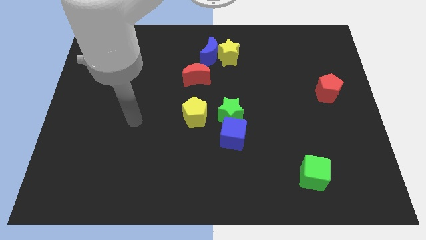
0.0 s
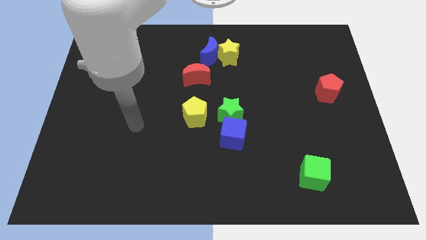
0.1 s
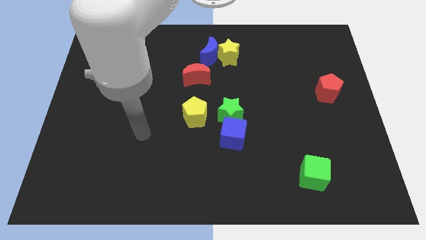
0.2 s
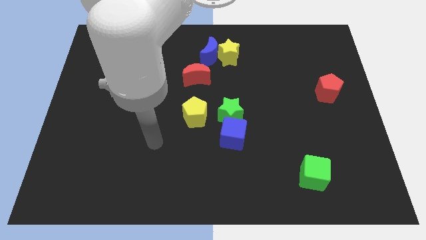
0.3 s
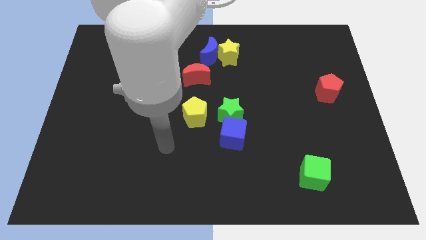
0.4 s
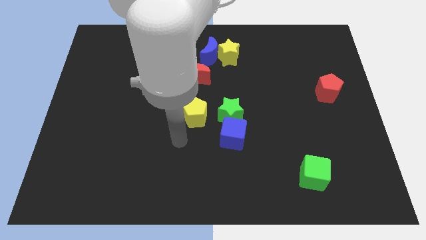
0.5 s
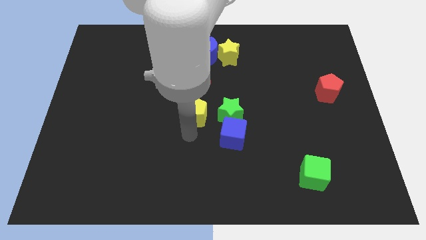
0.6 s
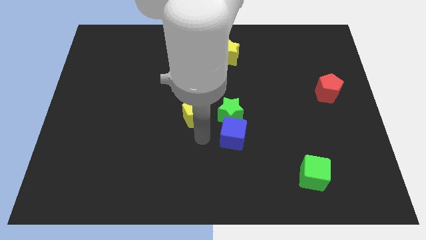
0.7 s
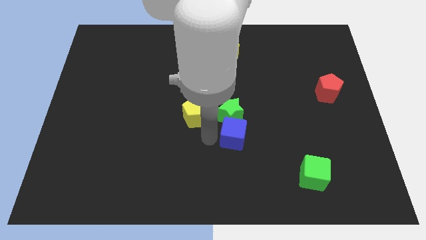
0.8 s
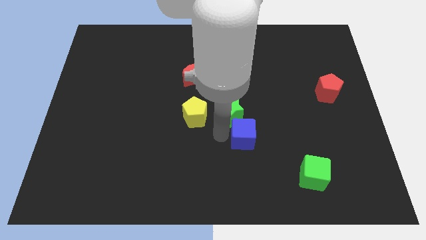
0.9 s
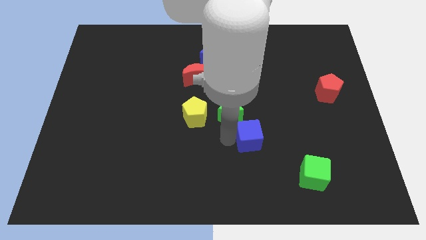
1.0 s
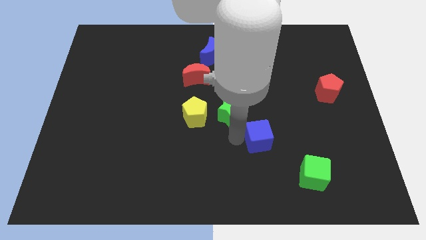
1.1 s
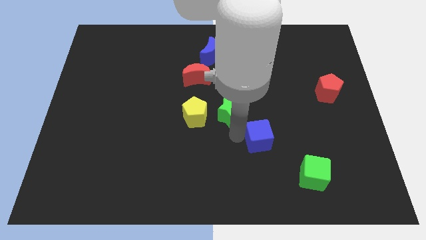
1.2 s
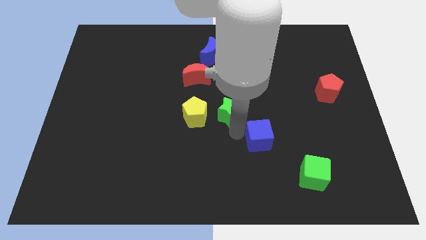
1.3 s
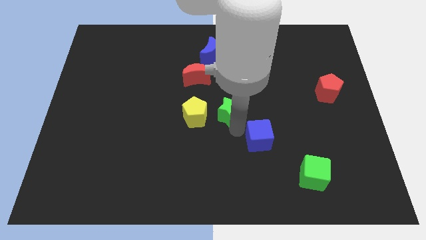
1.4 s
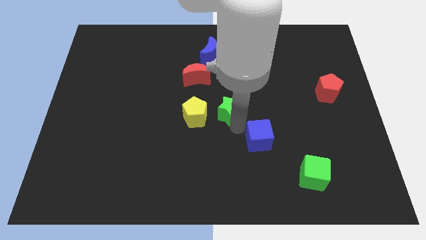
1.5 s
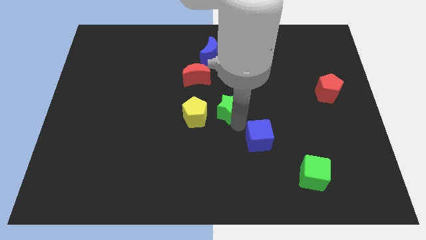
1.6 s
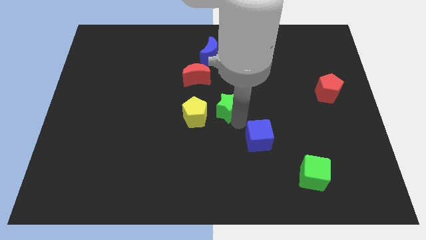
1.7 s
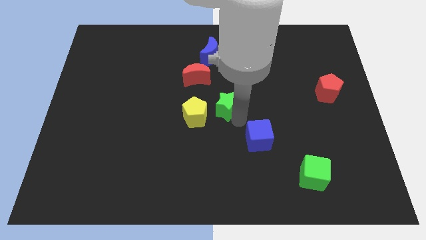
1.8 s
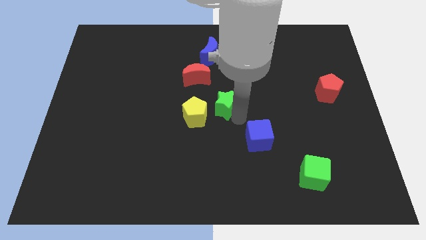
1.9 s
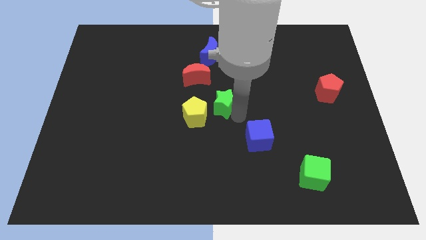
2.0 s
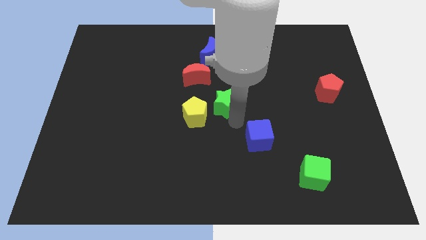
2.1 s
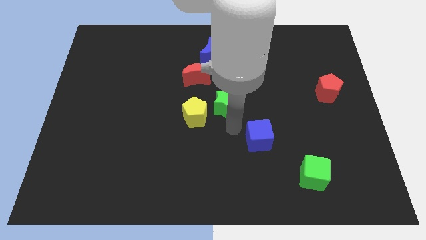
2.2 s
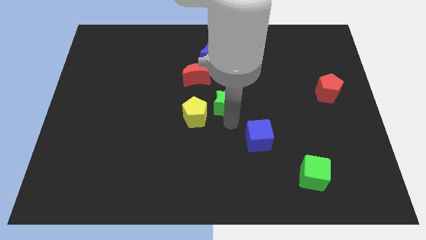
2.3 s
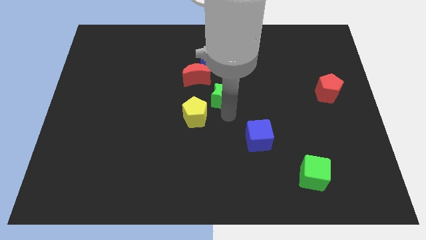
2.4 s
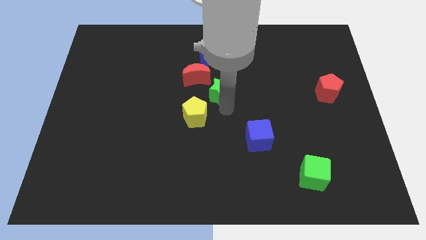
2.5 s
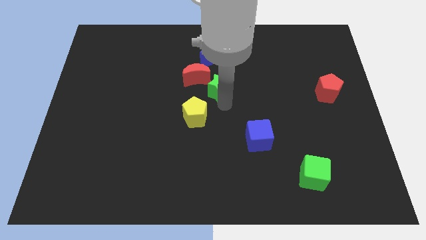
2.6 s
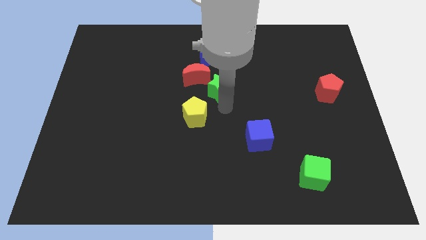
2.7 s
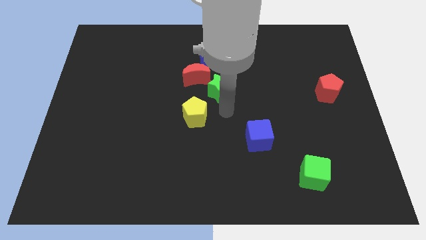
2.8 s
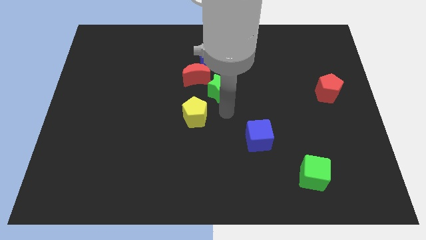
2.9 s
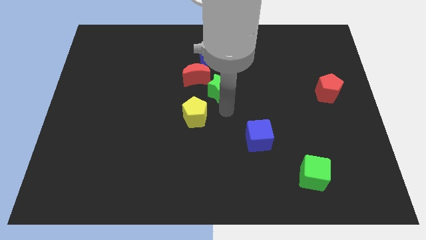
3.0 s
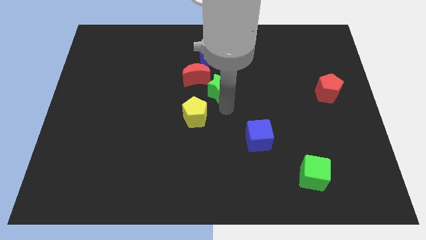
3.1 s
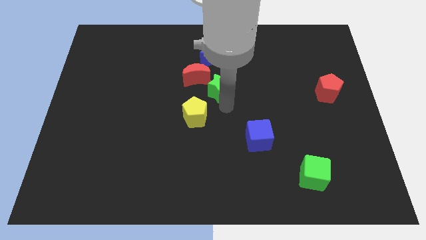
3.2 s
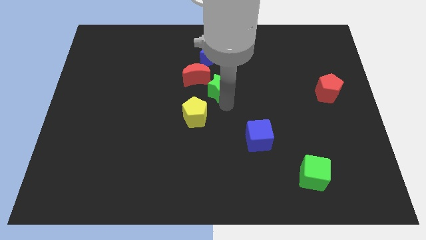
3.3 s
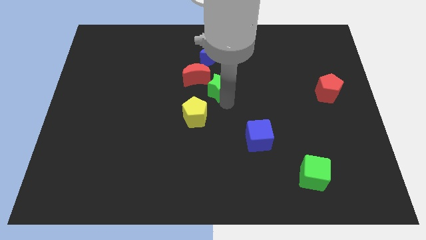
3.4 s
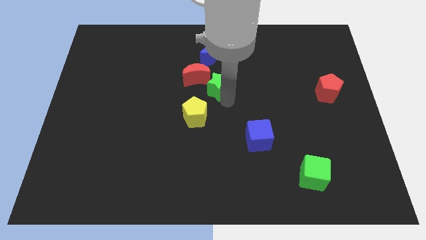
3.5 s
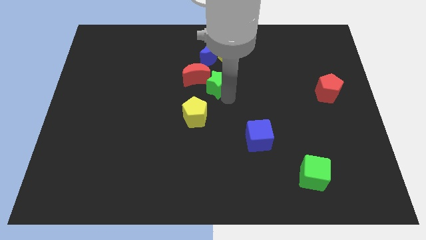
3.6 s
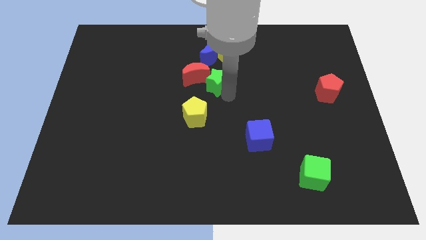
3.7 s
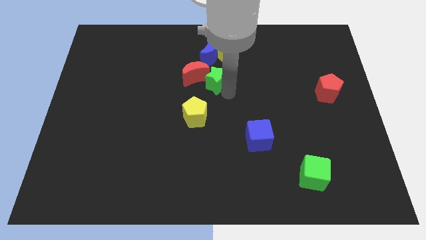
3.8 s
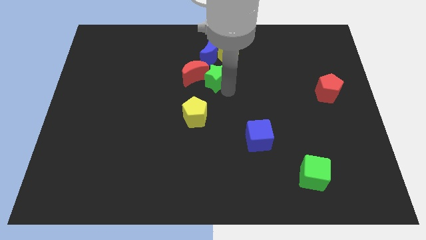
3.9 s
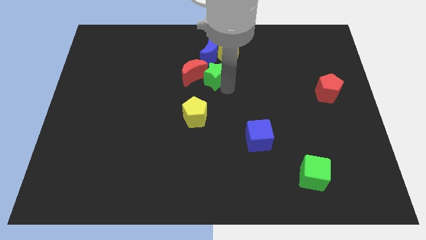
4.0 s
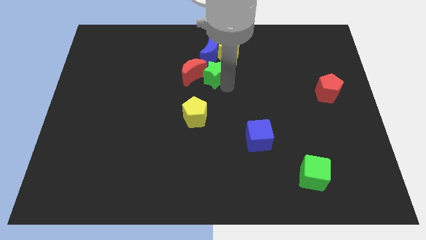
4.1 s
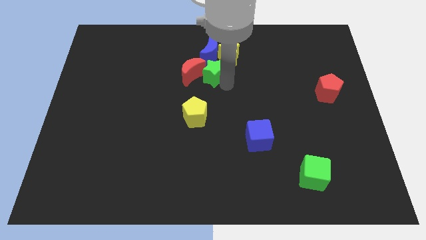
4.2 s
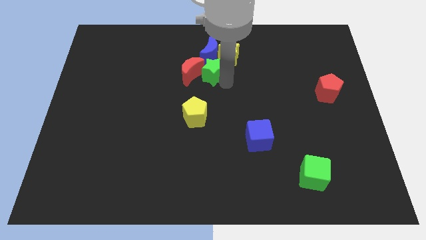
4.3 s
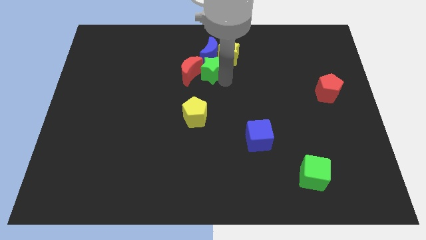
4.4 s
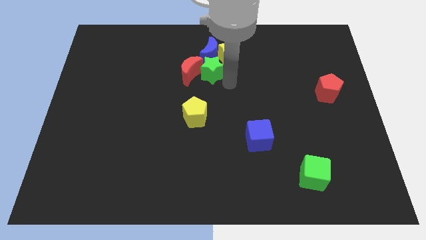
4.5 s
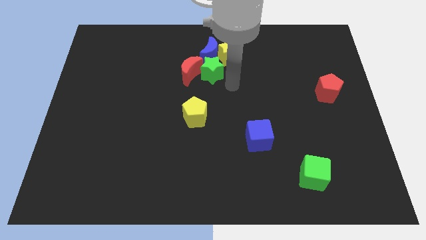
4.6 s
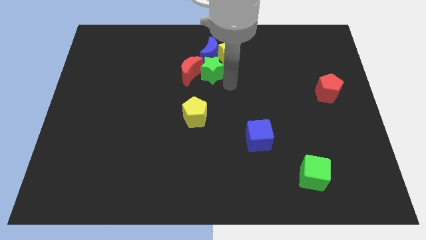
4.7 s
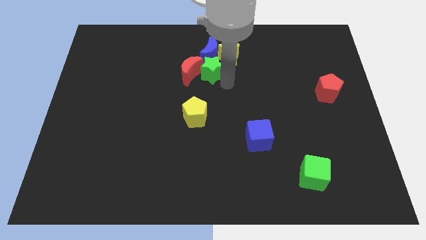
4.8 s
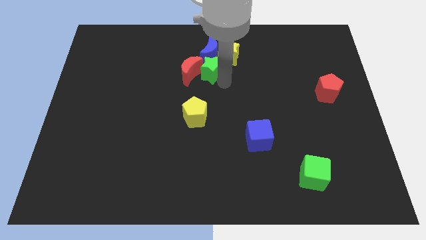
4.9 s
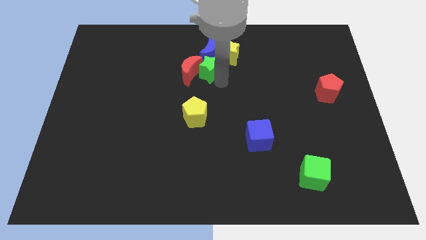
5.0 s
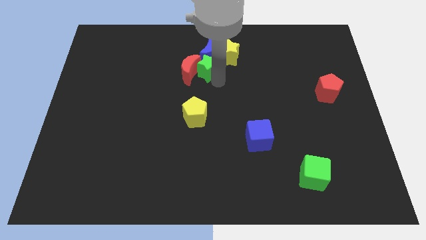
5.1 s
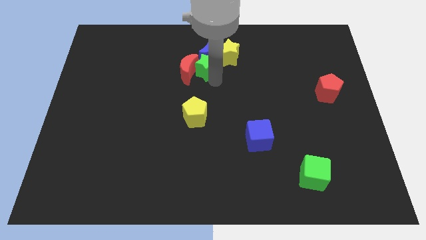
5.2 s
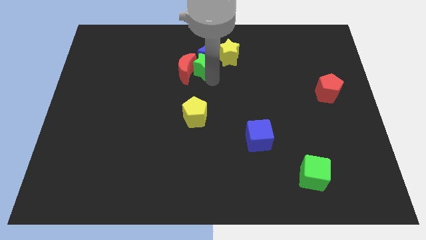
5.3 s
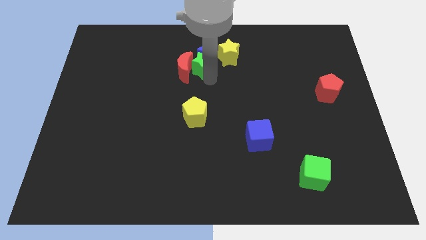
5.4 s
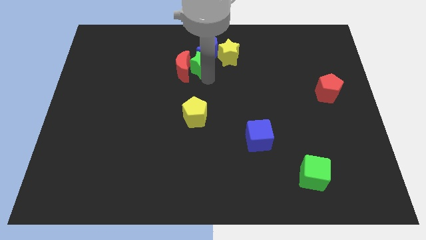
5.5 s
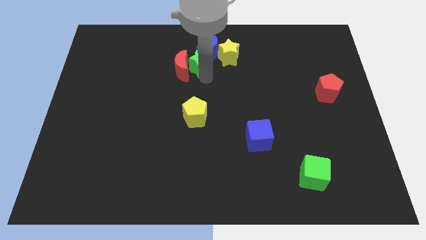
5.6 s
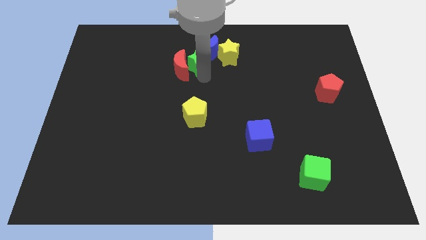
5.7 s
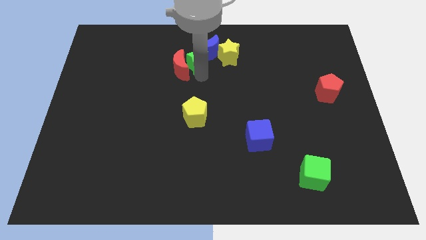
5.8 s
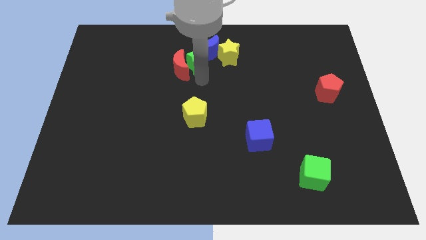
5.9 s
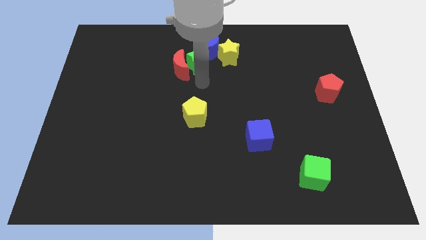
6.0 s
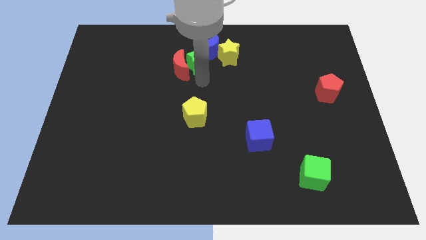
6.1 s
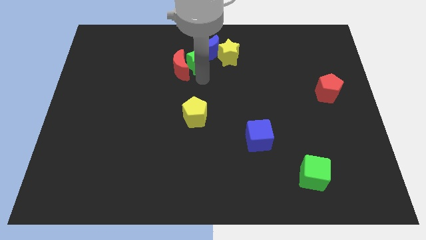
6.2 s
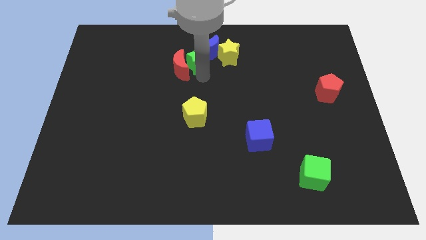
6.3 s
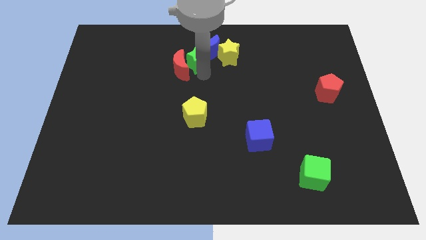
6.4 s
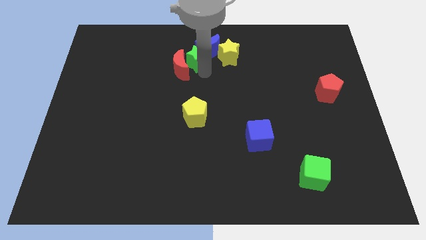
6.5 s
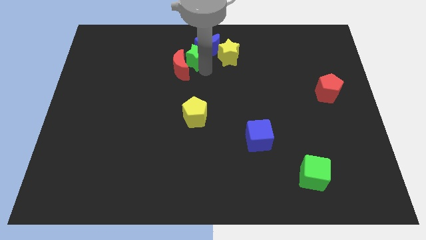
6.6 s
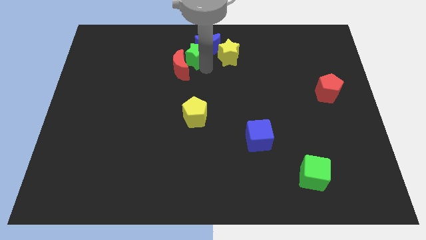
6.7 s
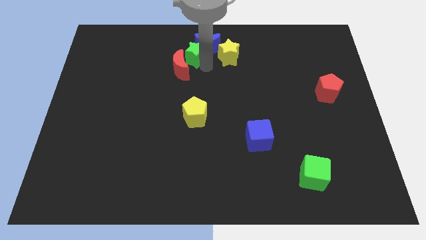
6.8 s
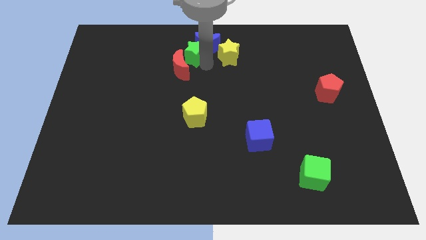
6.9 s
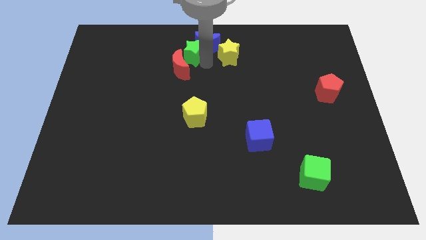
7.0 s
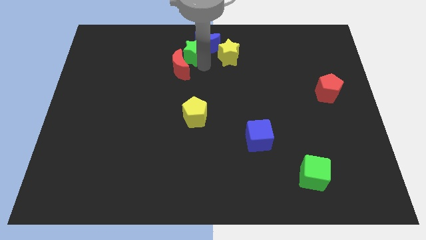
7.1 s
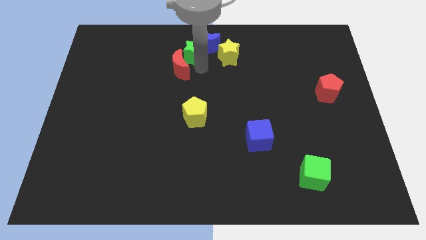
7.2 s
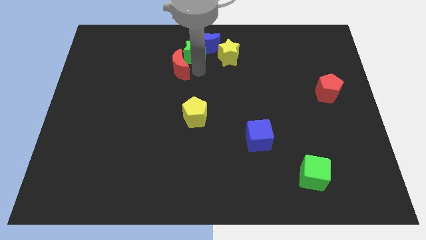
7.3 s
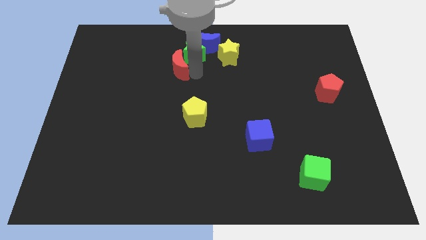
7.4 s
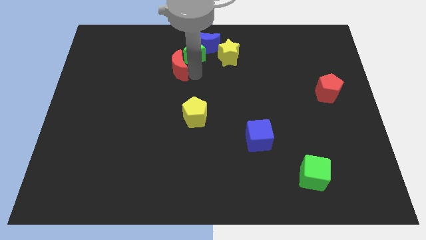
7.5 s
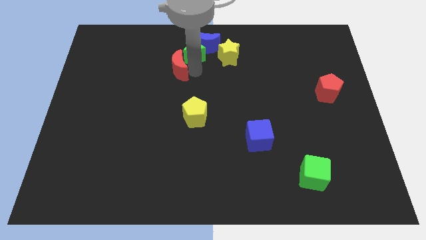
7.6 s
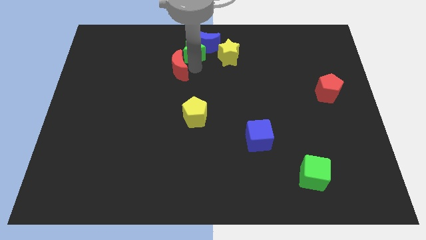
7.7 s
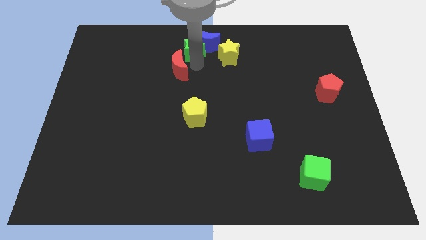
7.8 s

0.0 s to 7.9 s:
slide the green star to the top
